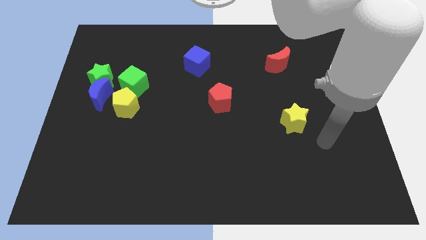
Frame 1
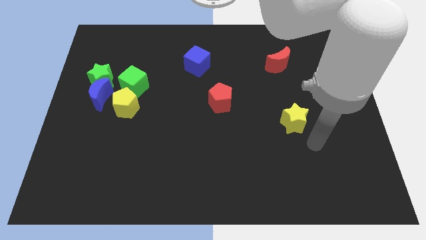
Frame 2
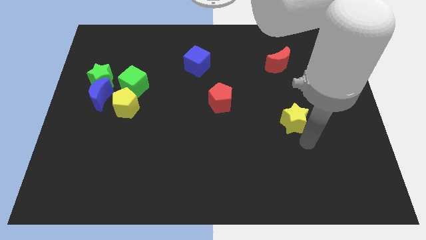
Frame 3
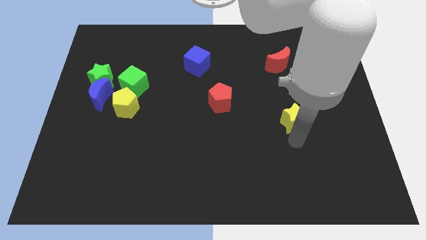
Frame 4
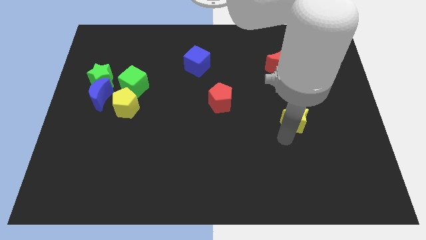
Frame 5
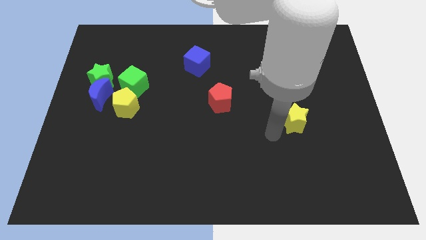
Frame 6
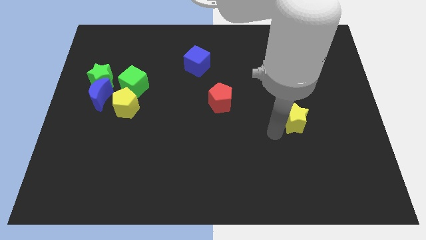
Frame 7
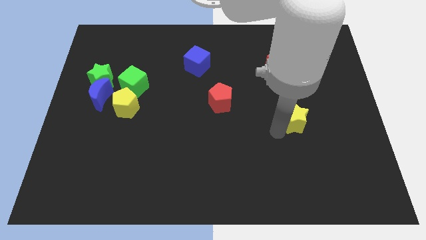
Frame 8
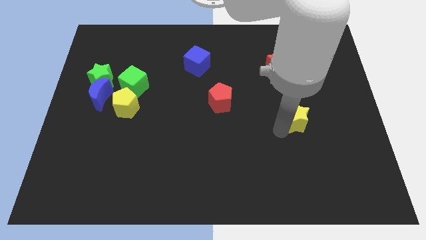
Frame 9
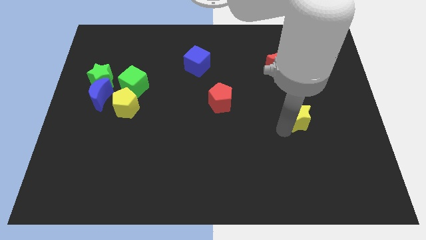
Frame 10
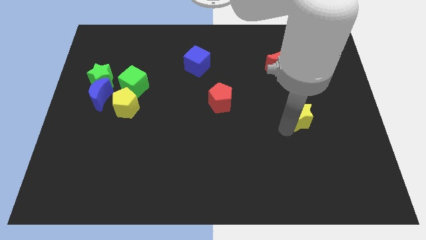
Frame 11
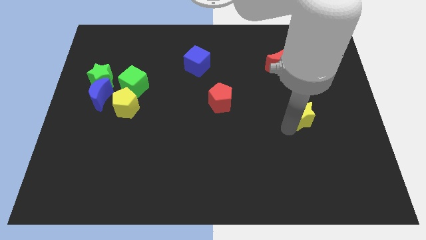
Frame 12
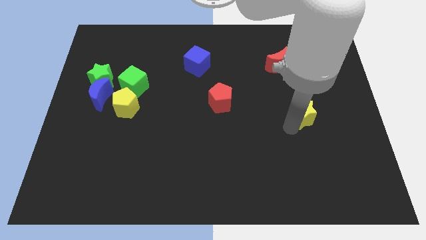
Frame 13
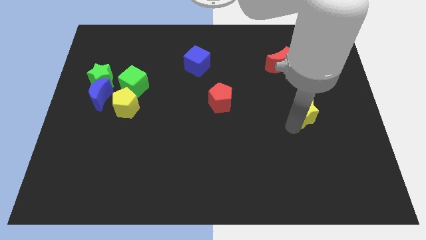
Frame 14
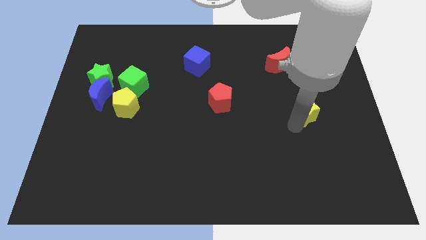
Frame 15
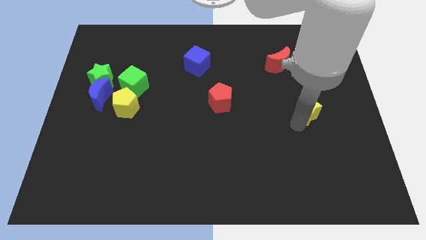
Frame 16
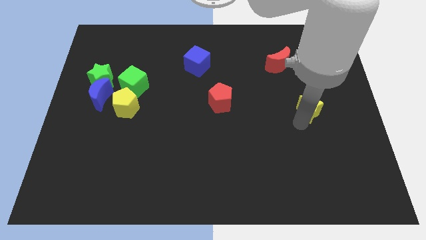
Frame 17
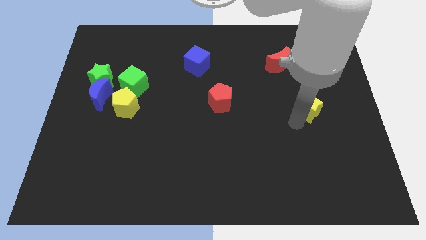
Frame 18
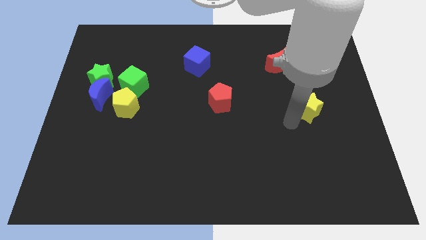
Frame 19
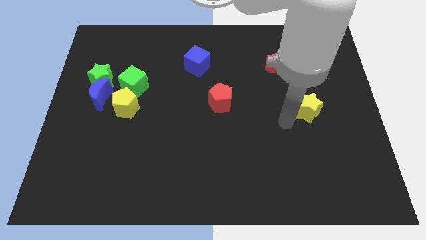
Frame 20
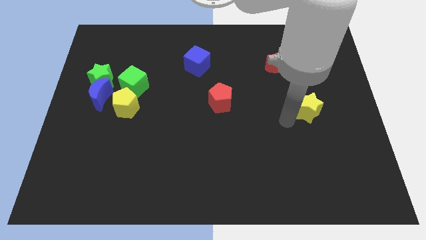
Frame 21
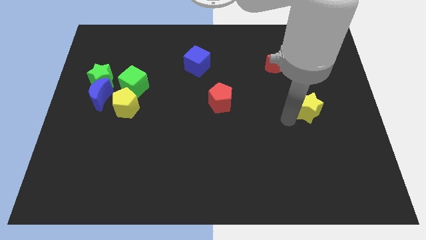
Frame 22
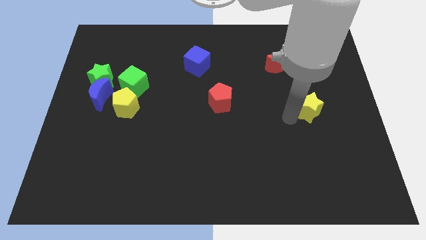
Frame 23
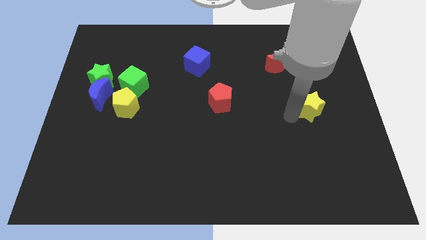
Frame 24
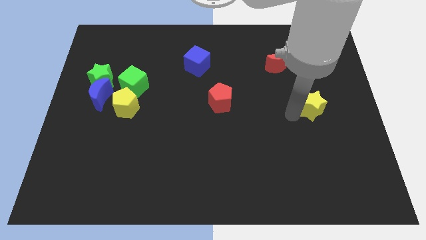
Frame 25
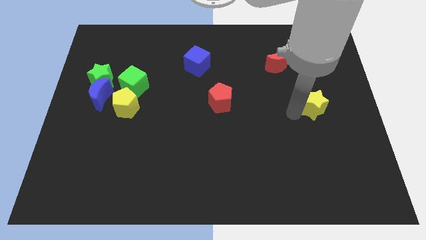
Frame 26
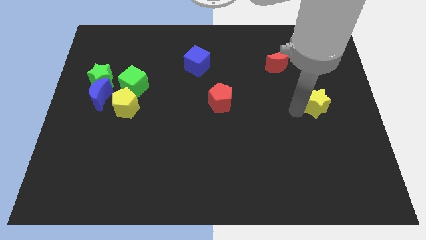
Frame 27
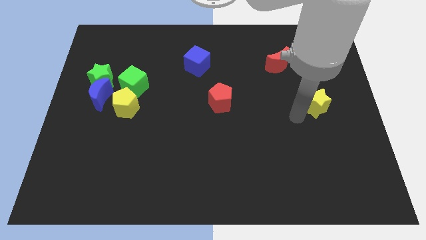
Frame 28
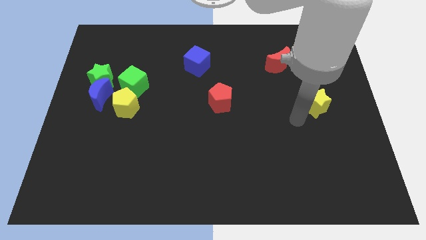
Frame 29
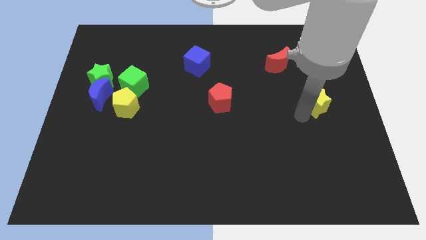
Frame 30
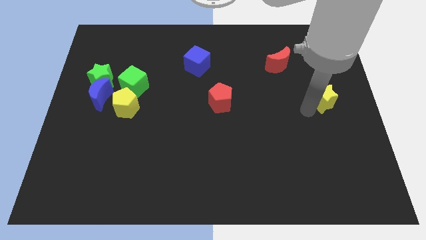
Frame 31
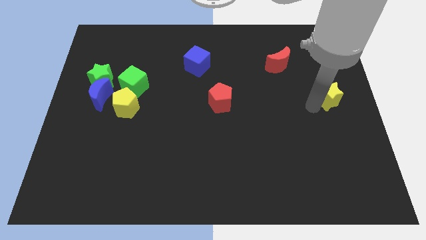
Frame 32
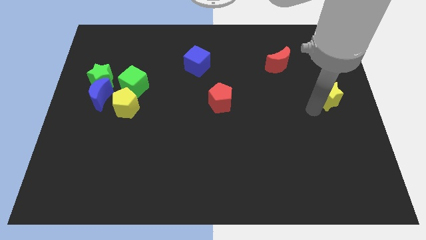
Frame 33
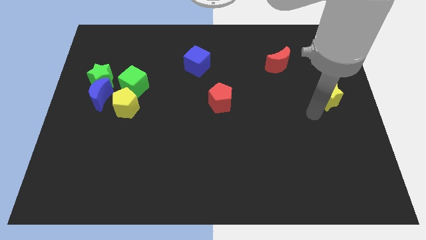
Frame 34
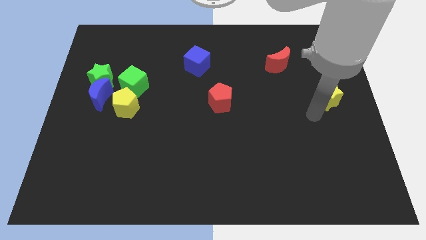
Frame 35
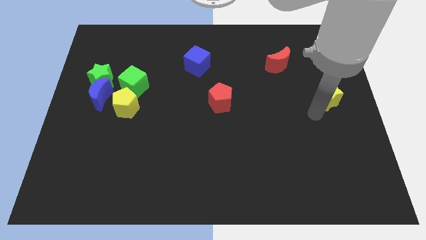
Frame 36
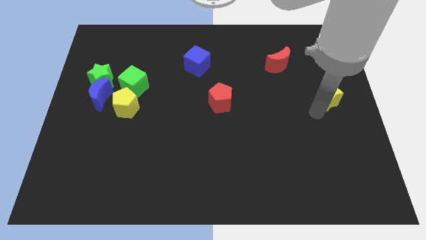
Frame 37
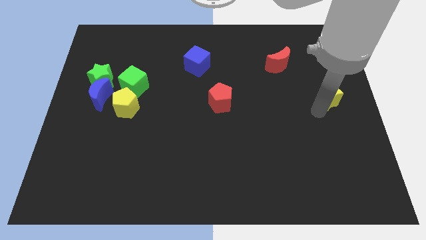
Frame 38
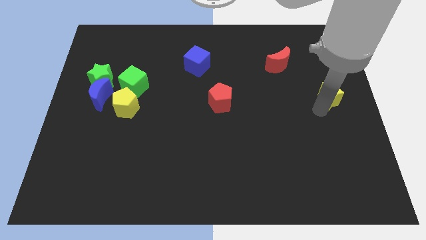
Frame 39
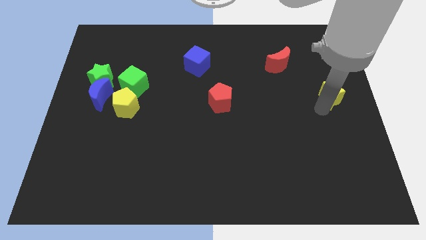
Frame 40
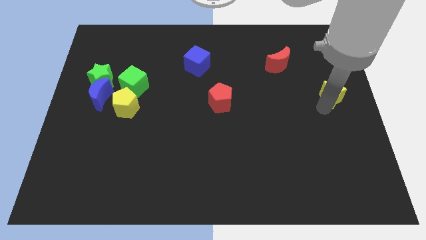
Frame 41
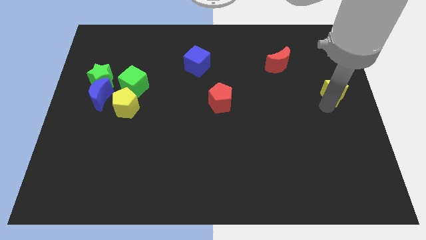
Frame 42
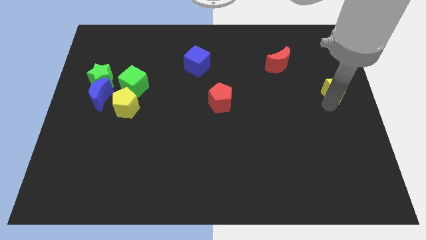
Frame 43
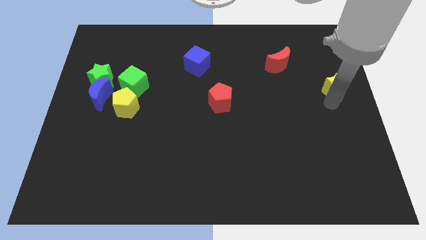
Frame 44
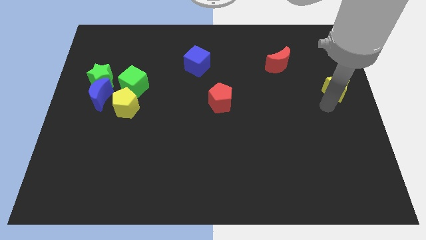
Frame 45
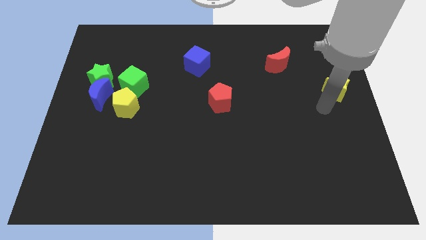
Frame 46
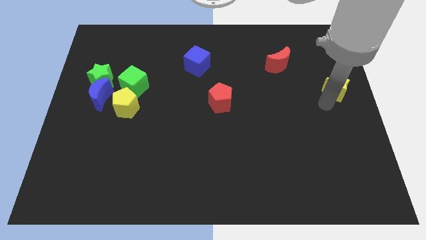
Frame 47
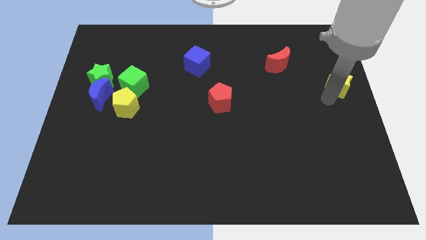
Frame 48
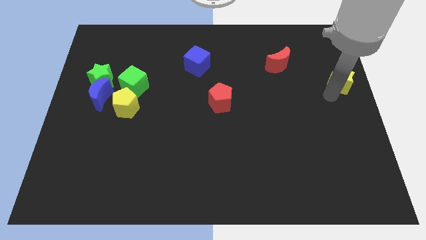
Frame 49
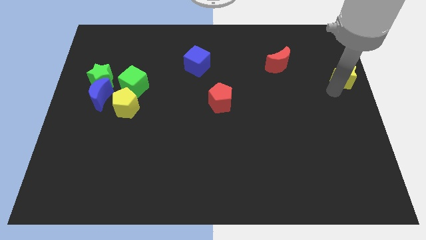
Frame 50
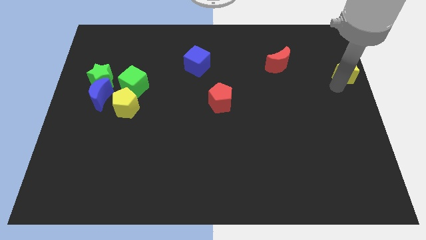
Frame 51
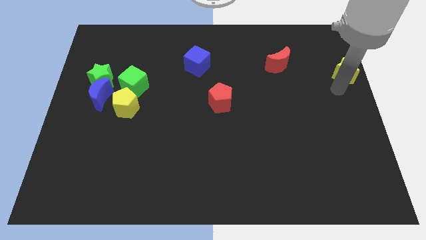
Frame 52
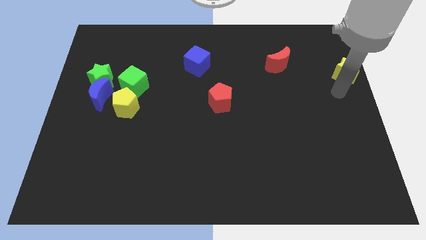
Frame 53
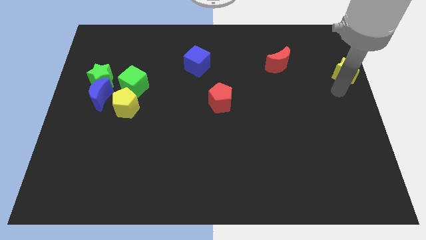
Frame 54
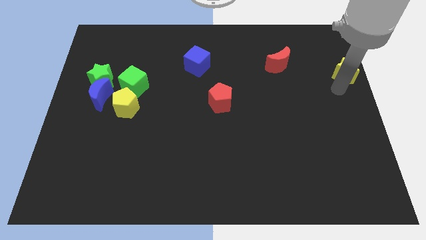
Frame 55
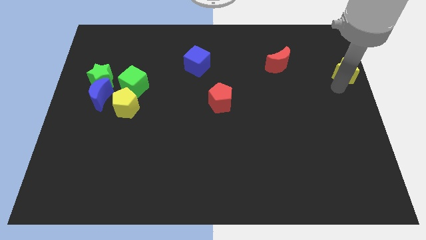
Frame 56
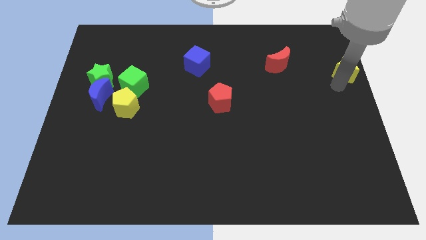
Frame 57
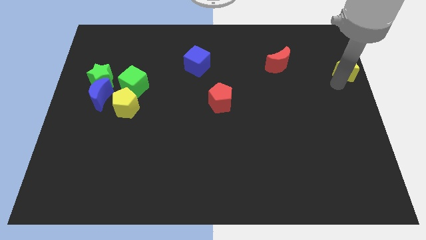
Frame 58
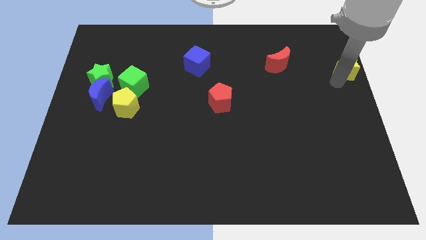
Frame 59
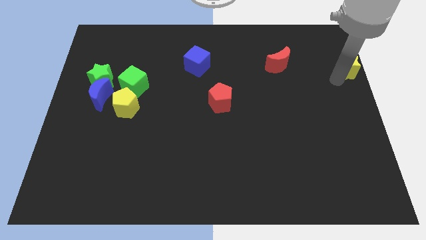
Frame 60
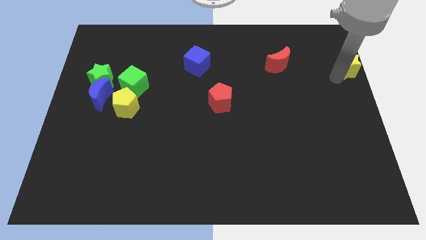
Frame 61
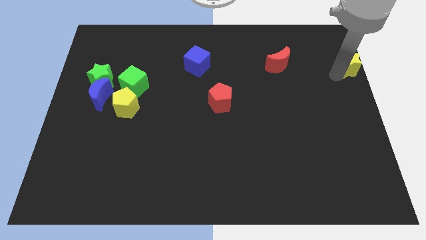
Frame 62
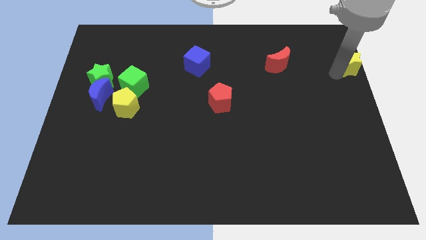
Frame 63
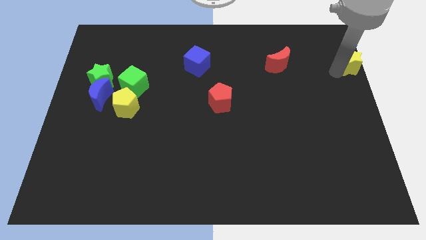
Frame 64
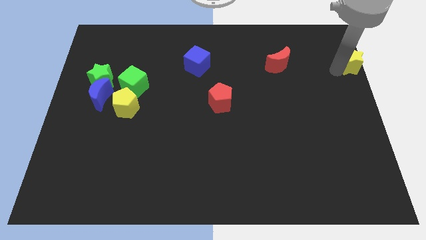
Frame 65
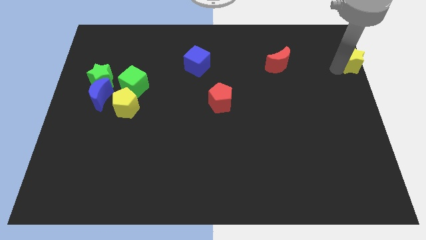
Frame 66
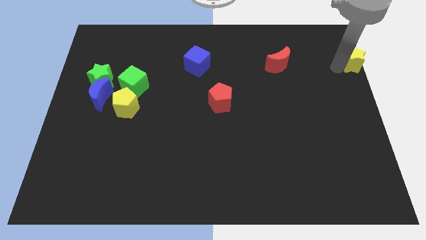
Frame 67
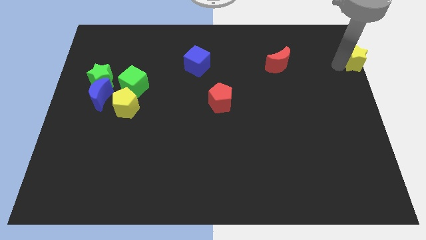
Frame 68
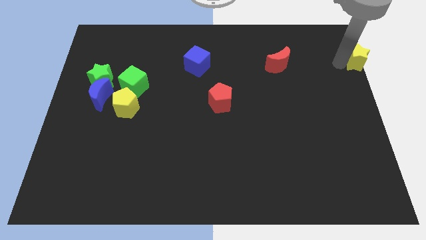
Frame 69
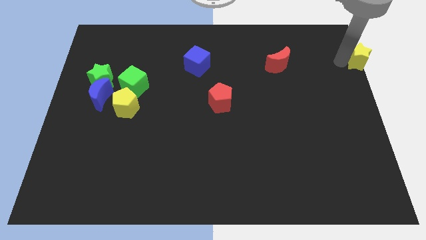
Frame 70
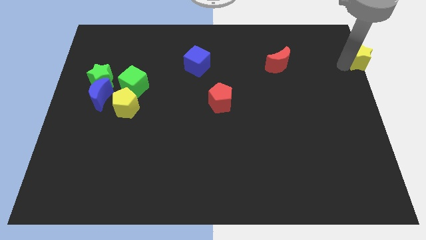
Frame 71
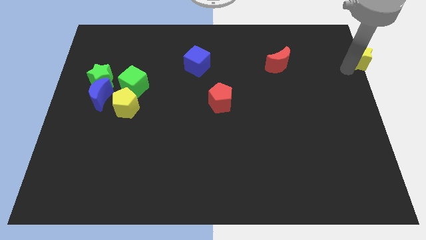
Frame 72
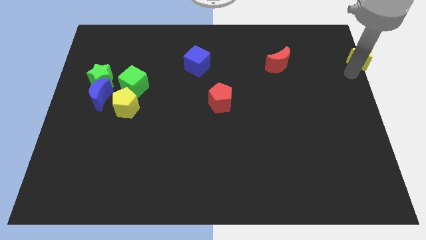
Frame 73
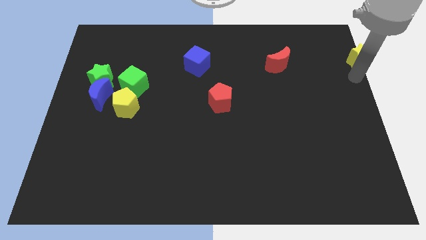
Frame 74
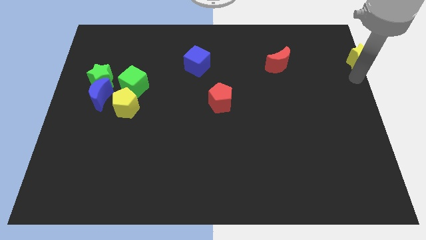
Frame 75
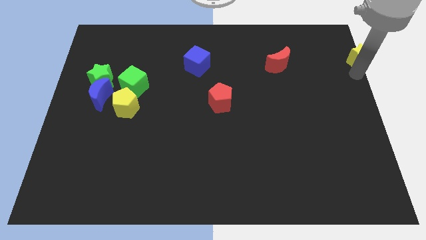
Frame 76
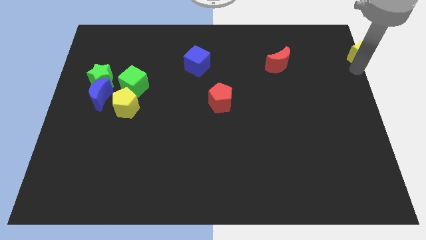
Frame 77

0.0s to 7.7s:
slide the yellow star to the upper right corner
